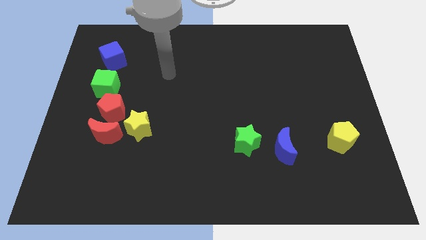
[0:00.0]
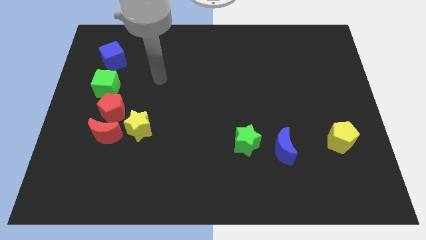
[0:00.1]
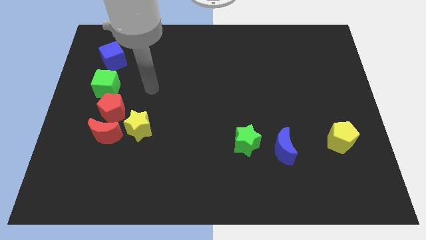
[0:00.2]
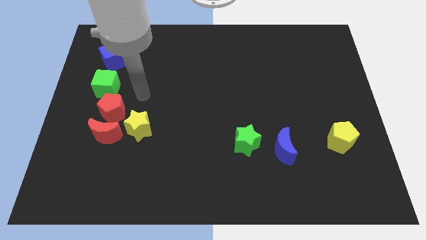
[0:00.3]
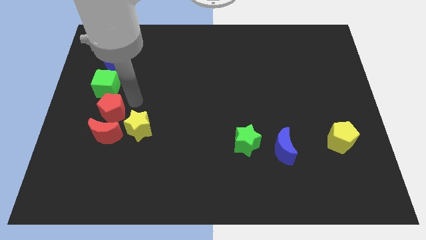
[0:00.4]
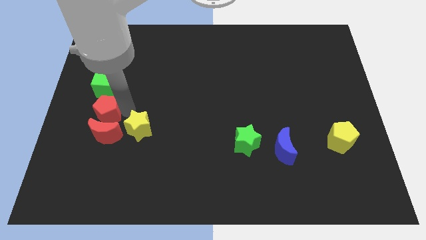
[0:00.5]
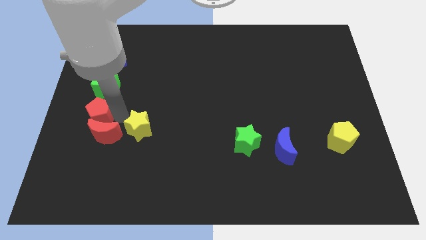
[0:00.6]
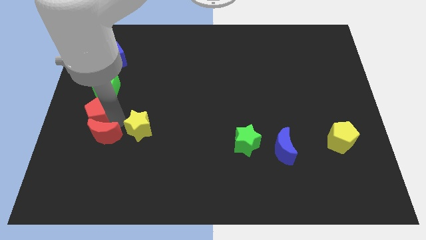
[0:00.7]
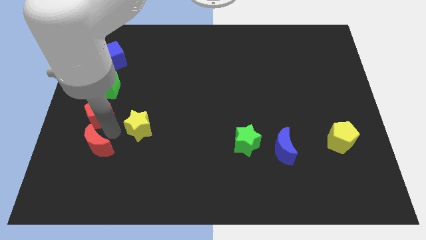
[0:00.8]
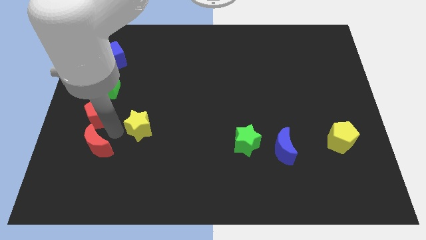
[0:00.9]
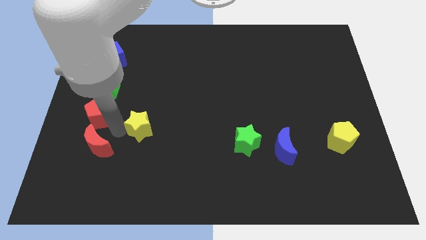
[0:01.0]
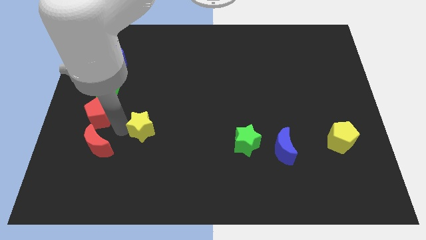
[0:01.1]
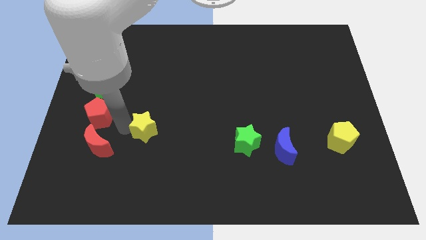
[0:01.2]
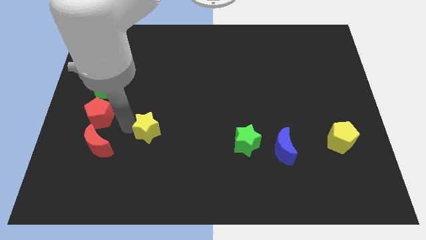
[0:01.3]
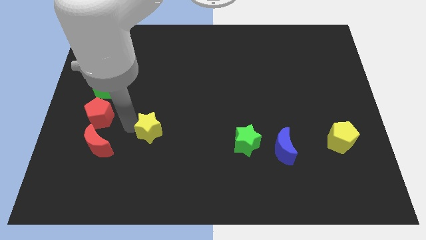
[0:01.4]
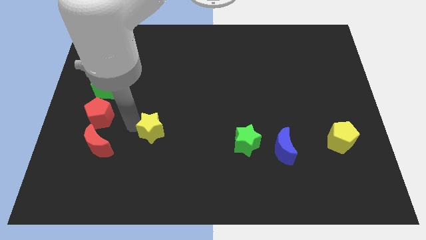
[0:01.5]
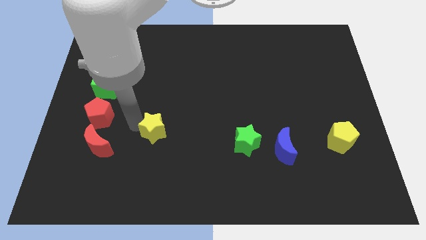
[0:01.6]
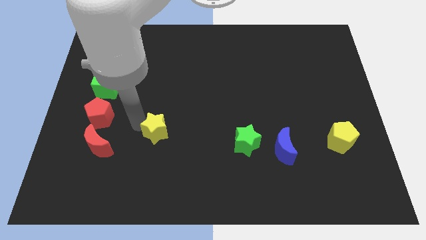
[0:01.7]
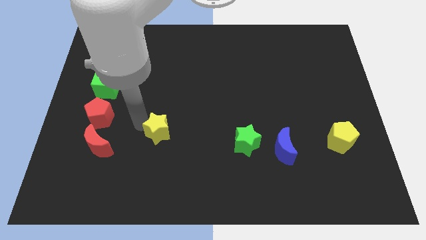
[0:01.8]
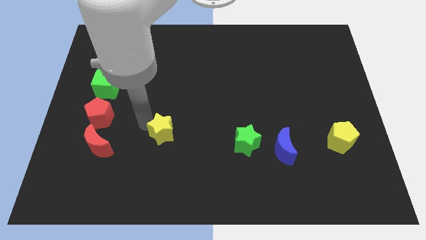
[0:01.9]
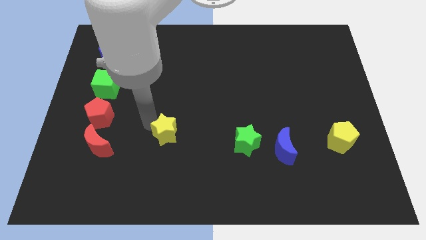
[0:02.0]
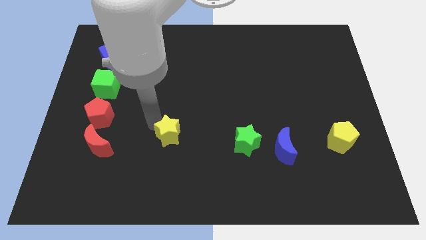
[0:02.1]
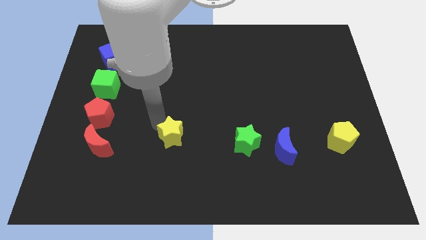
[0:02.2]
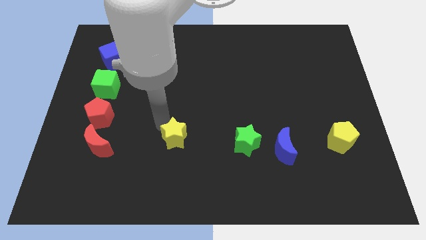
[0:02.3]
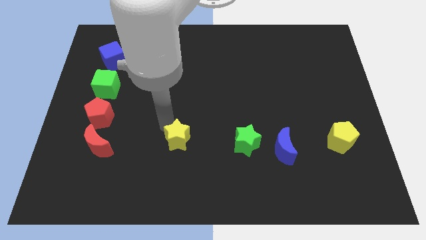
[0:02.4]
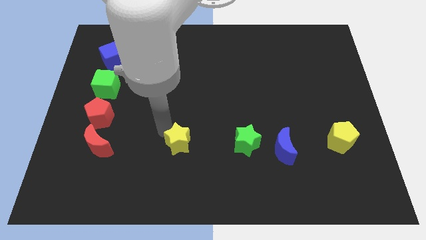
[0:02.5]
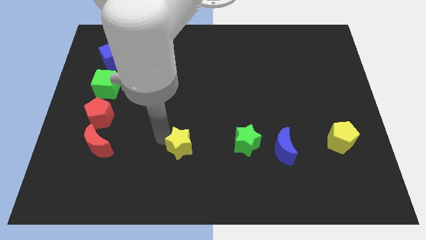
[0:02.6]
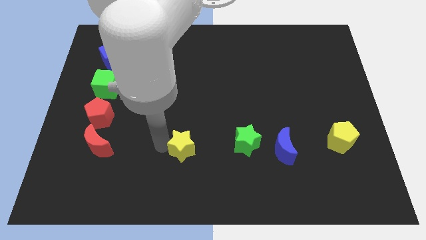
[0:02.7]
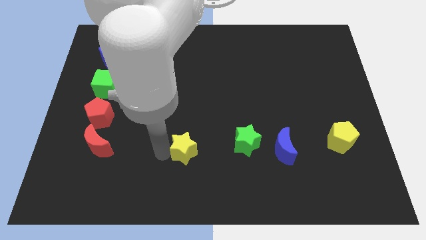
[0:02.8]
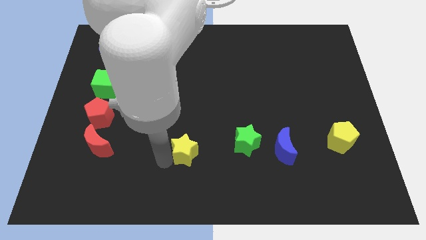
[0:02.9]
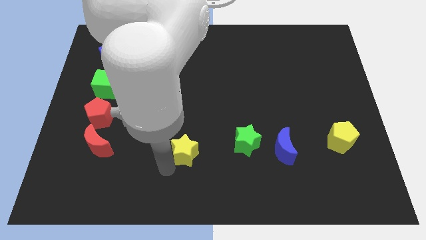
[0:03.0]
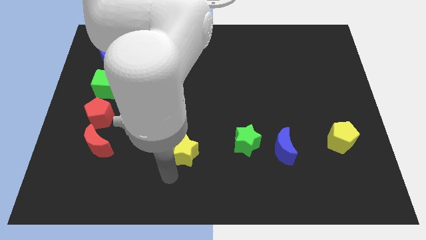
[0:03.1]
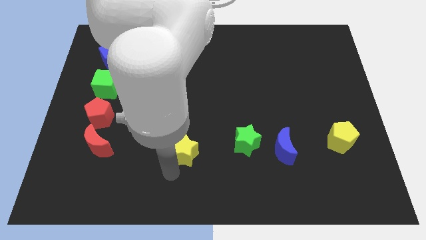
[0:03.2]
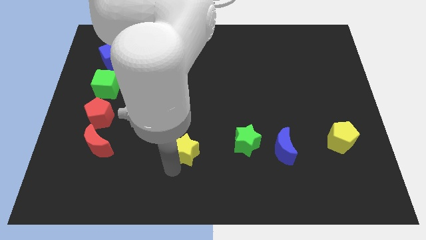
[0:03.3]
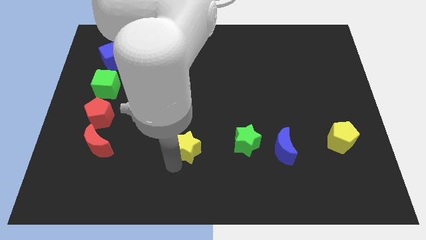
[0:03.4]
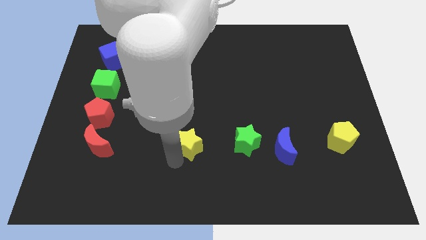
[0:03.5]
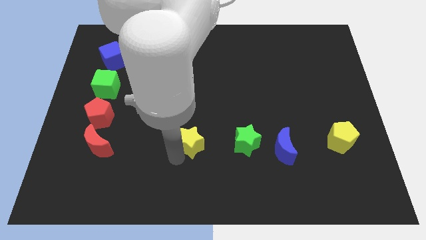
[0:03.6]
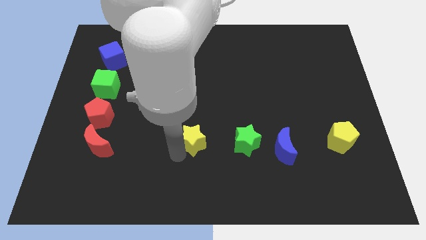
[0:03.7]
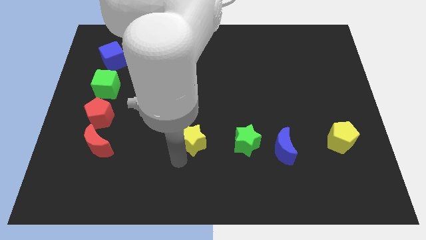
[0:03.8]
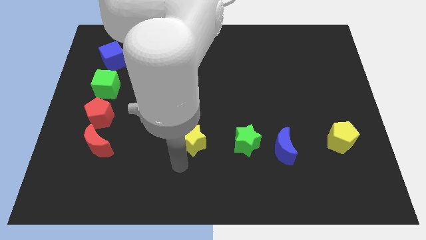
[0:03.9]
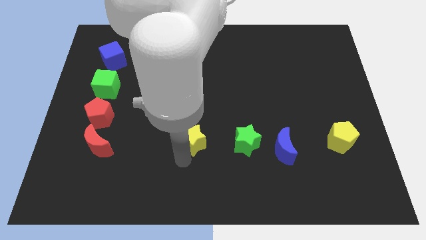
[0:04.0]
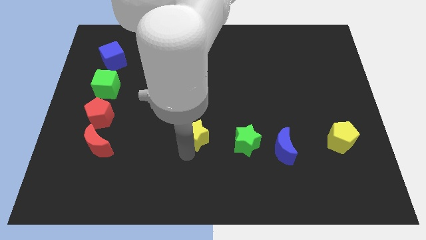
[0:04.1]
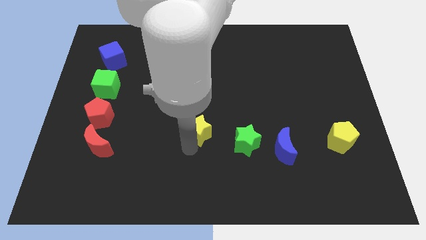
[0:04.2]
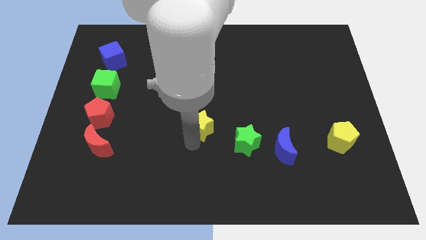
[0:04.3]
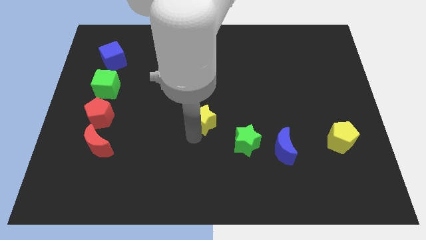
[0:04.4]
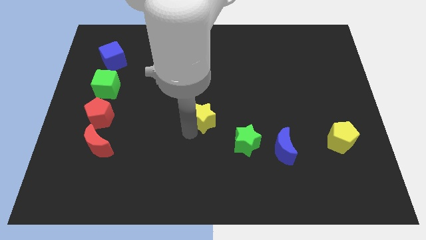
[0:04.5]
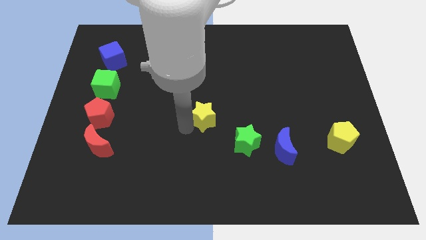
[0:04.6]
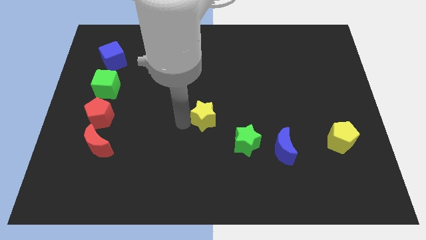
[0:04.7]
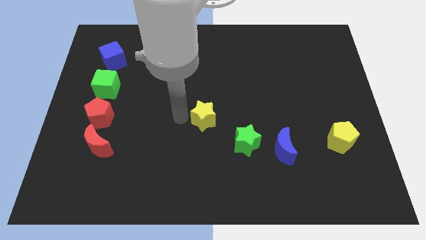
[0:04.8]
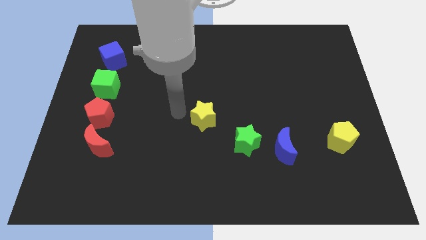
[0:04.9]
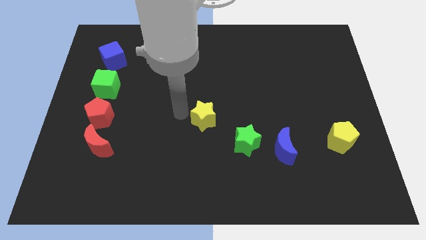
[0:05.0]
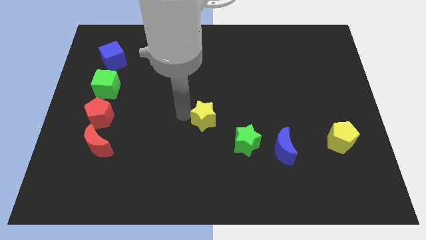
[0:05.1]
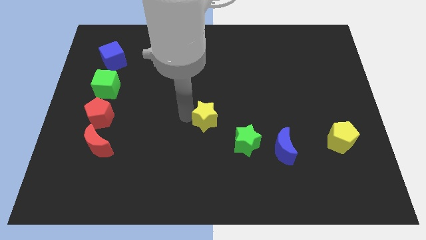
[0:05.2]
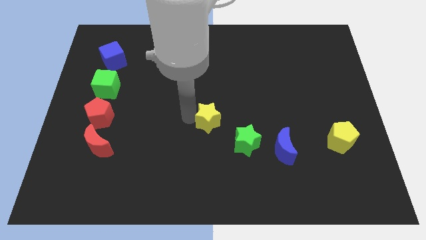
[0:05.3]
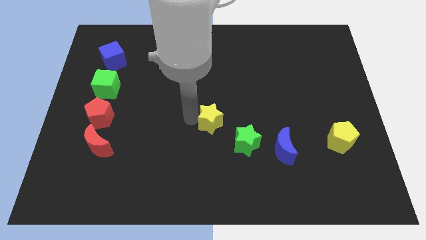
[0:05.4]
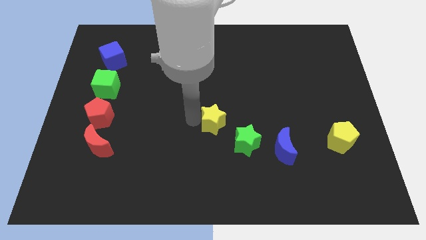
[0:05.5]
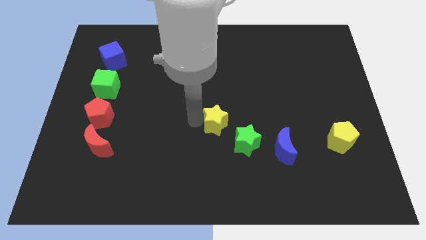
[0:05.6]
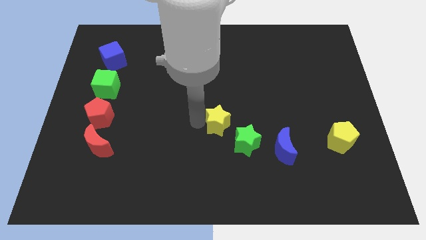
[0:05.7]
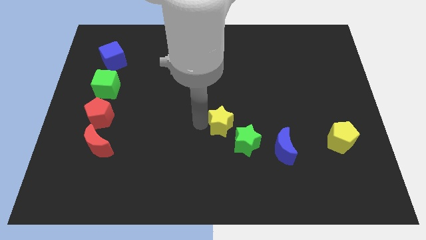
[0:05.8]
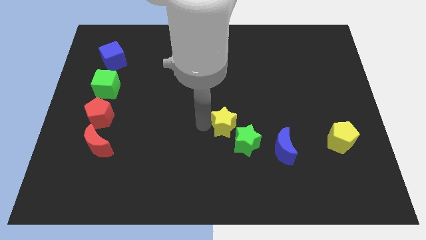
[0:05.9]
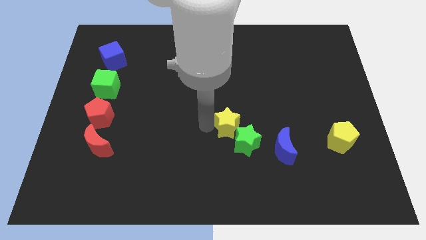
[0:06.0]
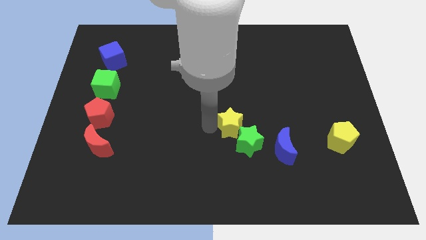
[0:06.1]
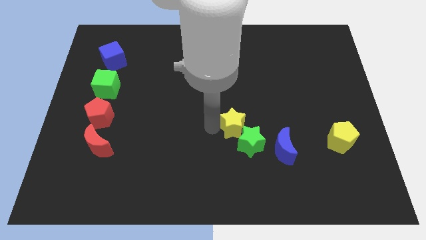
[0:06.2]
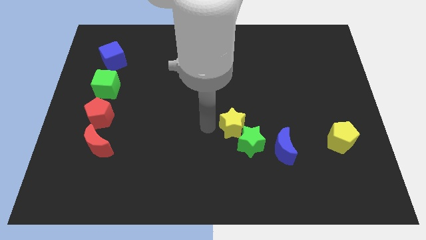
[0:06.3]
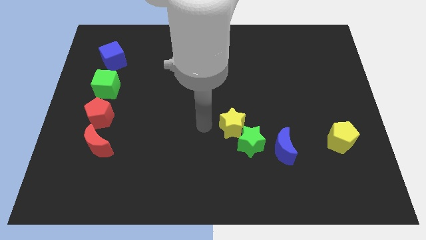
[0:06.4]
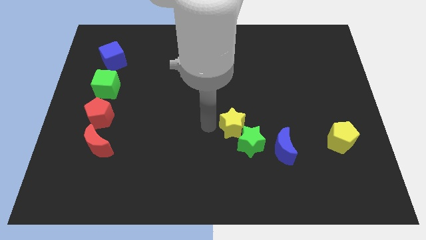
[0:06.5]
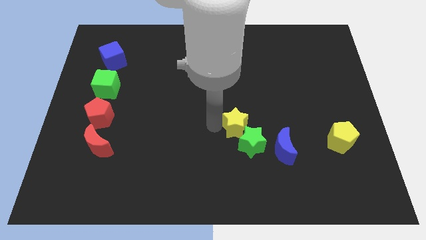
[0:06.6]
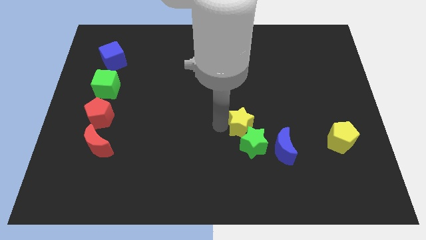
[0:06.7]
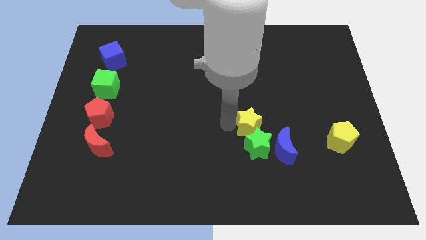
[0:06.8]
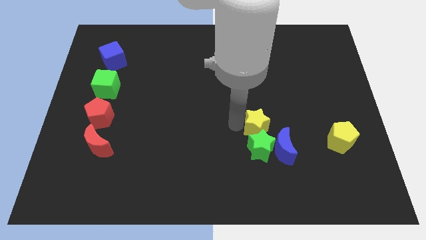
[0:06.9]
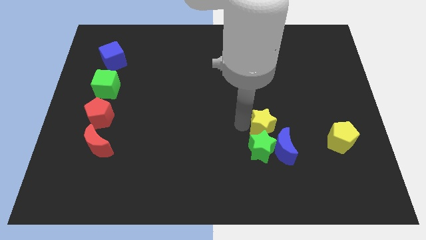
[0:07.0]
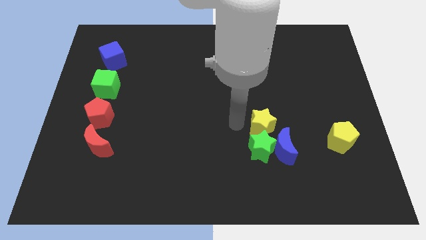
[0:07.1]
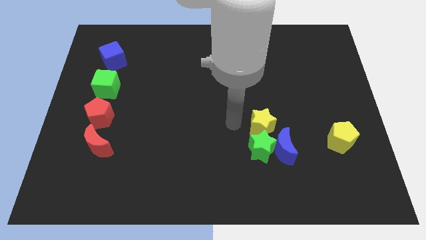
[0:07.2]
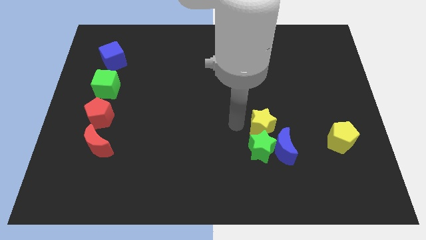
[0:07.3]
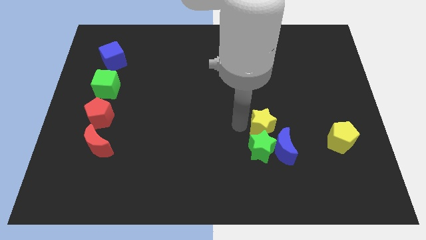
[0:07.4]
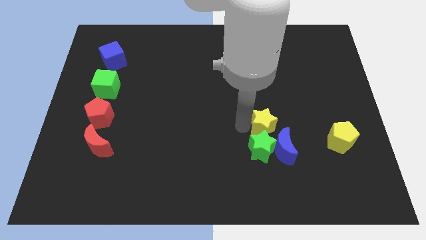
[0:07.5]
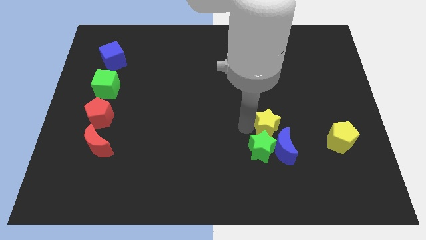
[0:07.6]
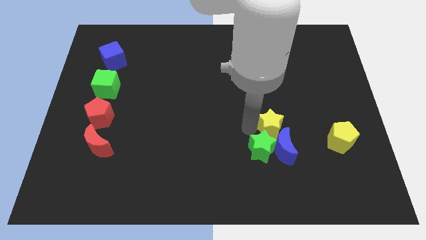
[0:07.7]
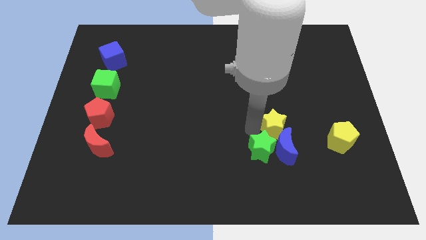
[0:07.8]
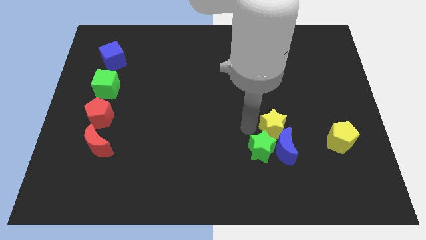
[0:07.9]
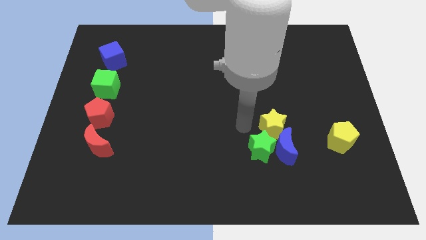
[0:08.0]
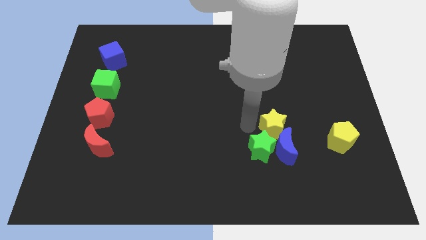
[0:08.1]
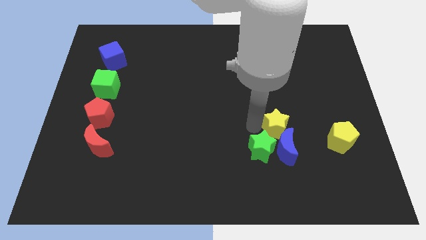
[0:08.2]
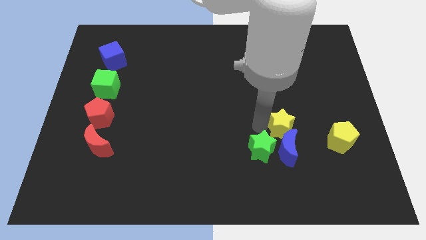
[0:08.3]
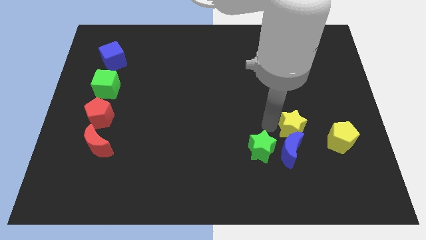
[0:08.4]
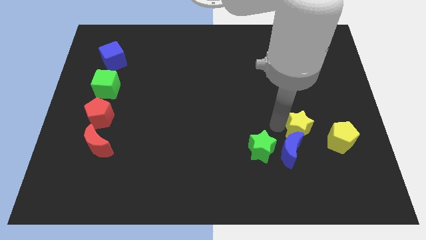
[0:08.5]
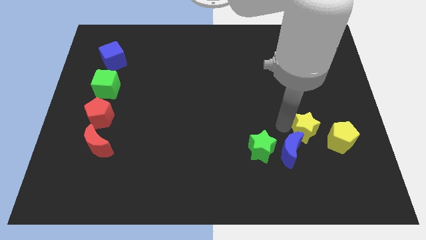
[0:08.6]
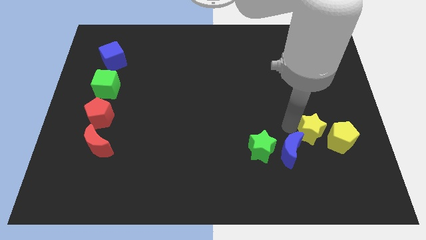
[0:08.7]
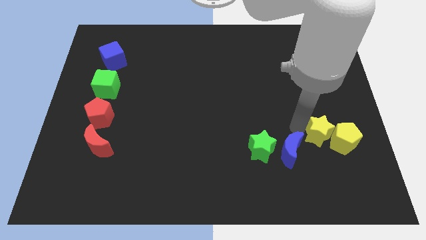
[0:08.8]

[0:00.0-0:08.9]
move the yellow star next to the yellow pentagon
